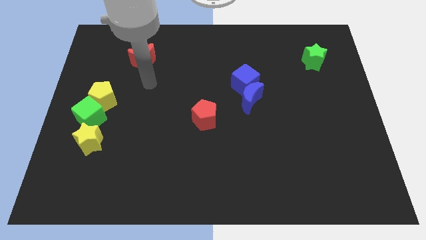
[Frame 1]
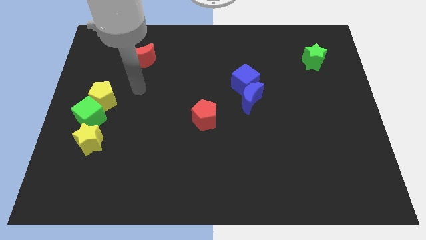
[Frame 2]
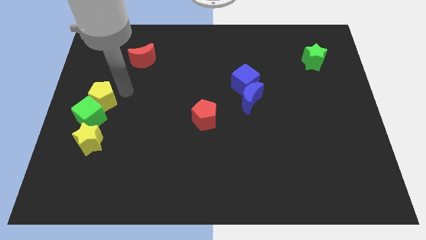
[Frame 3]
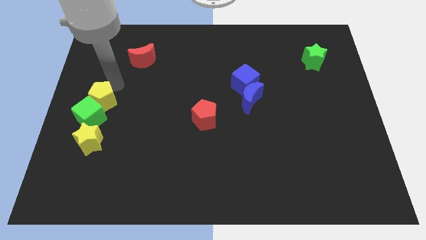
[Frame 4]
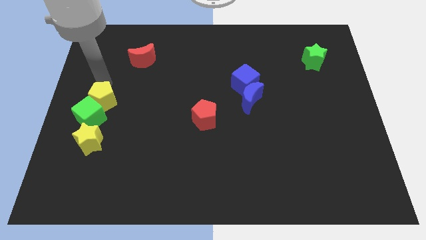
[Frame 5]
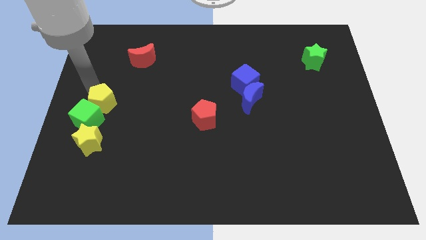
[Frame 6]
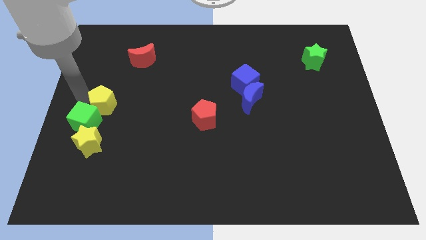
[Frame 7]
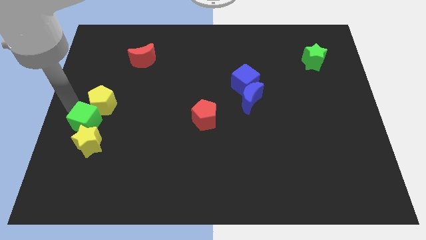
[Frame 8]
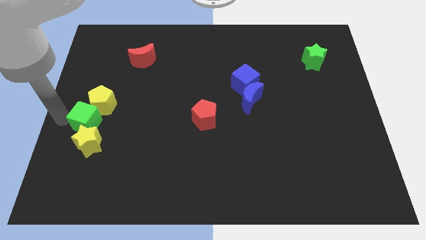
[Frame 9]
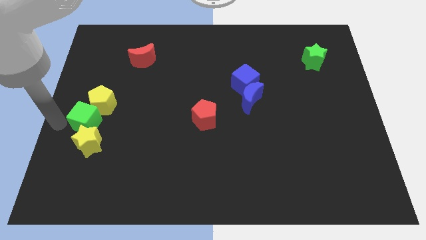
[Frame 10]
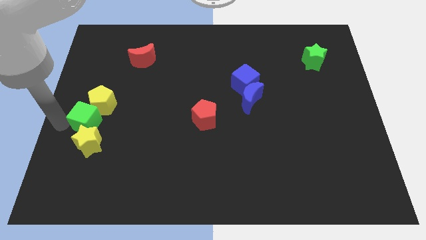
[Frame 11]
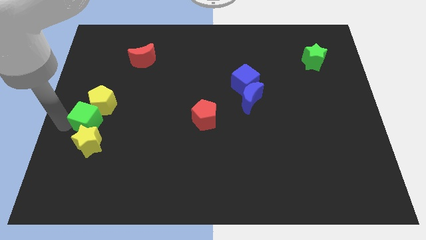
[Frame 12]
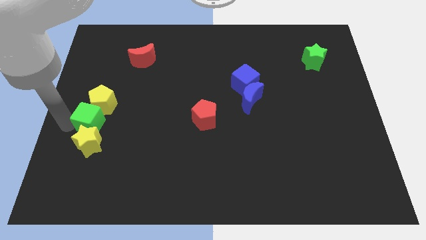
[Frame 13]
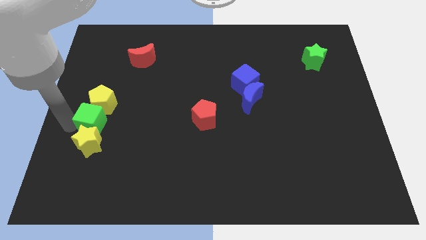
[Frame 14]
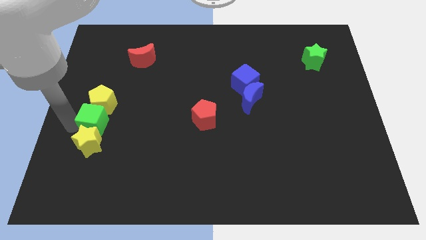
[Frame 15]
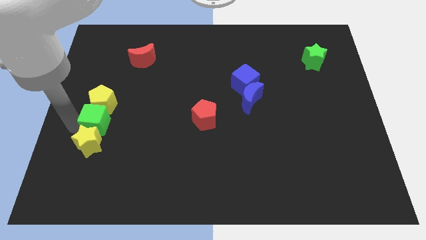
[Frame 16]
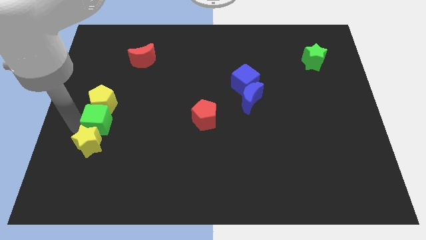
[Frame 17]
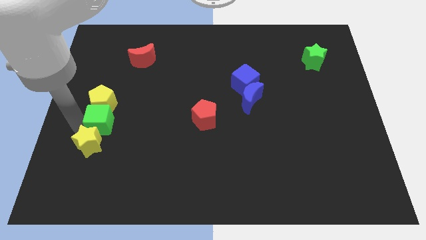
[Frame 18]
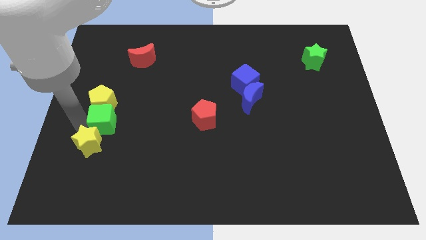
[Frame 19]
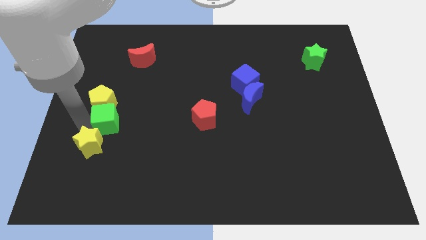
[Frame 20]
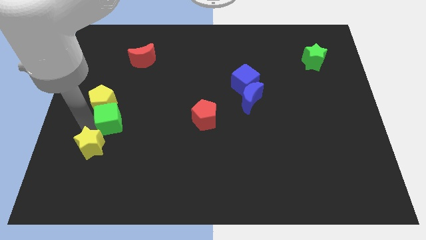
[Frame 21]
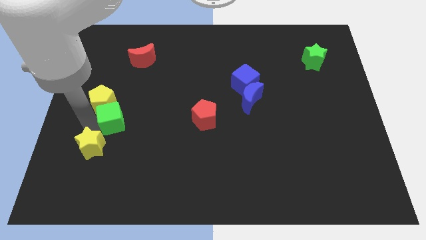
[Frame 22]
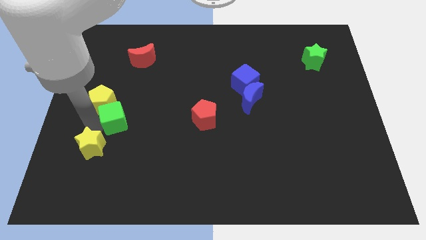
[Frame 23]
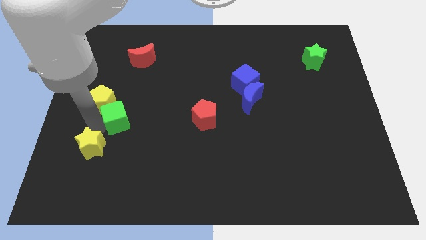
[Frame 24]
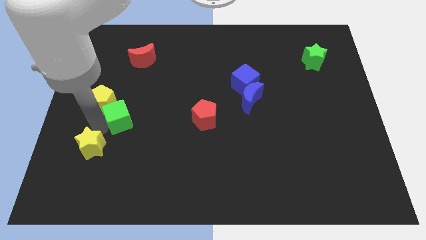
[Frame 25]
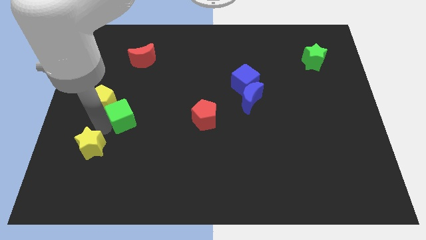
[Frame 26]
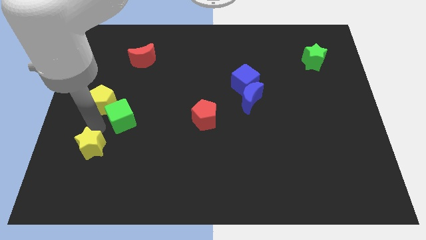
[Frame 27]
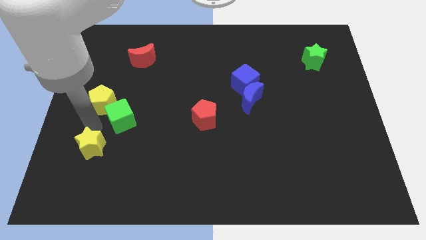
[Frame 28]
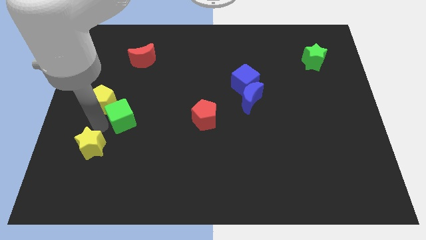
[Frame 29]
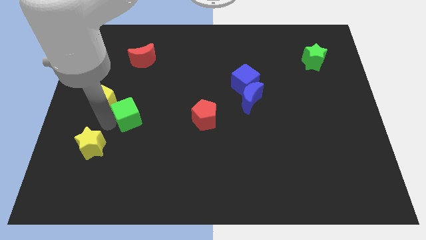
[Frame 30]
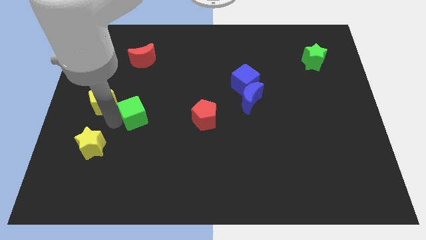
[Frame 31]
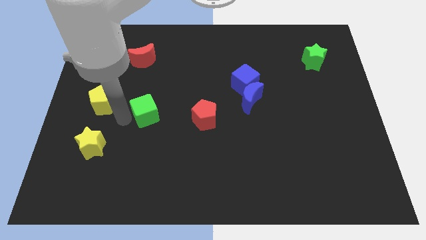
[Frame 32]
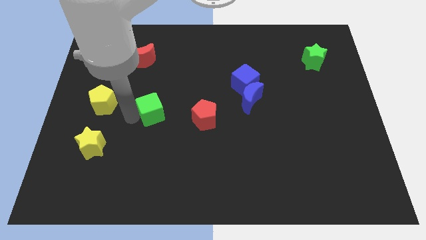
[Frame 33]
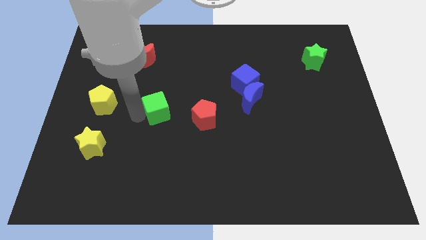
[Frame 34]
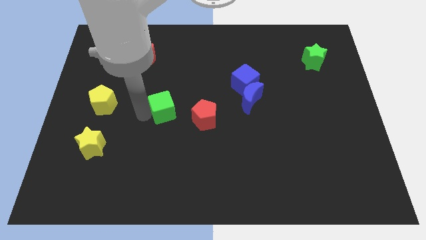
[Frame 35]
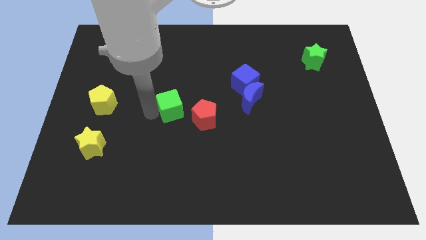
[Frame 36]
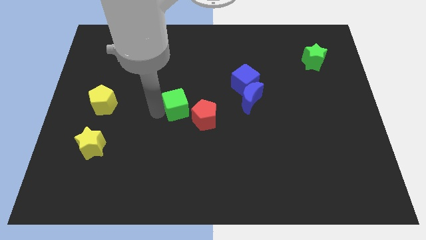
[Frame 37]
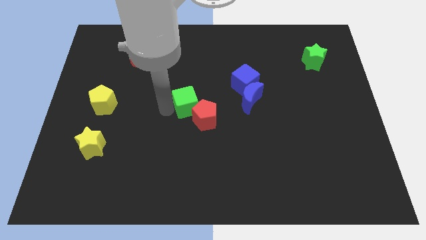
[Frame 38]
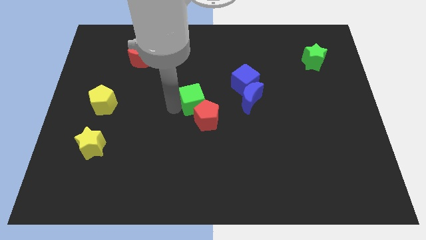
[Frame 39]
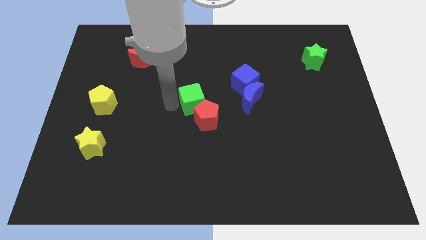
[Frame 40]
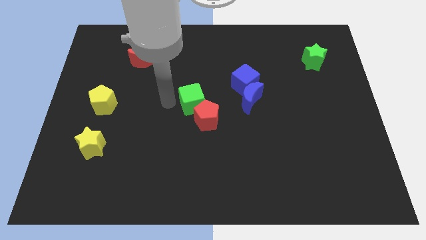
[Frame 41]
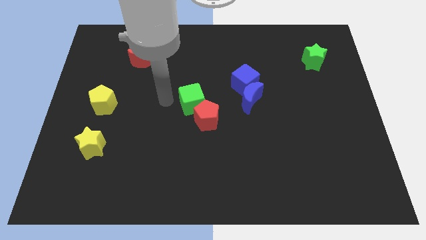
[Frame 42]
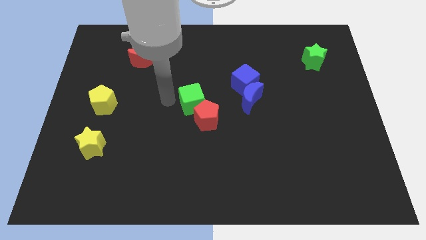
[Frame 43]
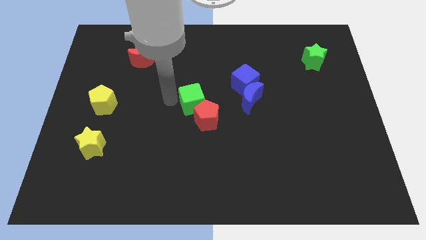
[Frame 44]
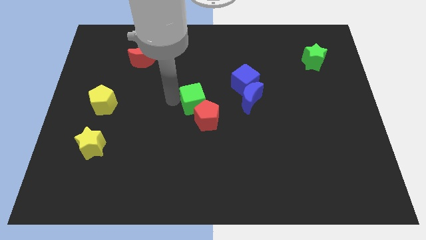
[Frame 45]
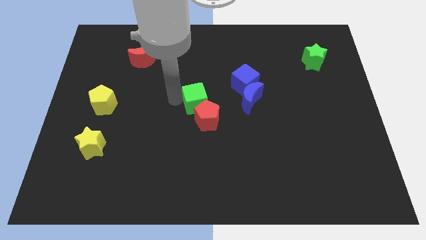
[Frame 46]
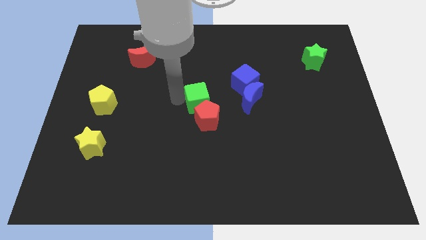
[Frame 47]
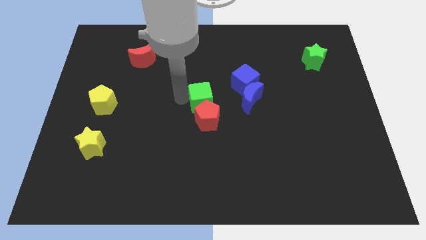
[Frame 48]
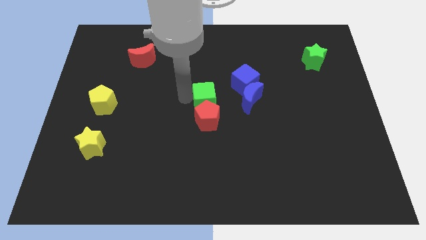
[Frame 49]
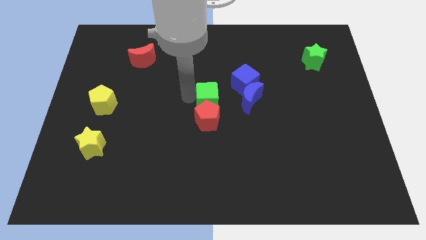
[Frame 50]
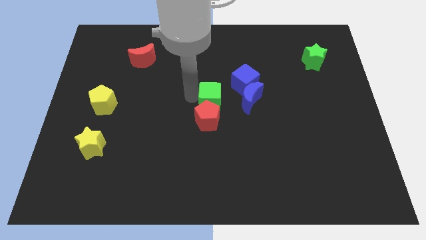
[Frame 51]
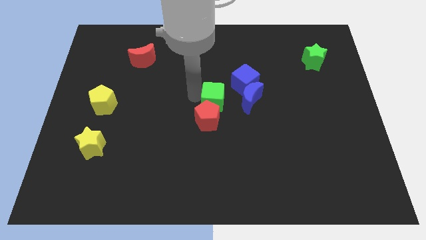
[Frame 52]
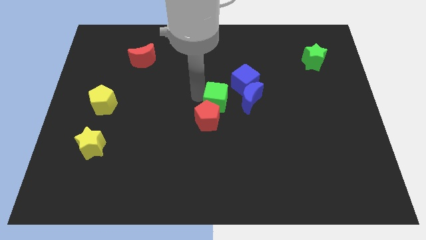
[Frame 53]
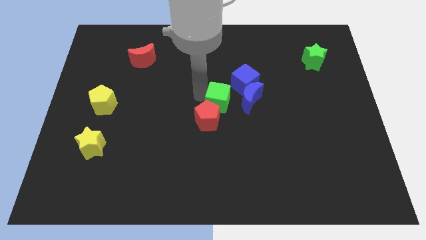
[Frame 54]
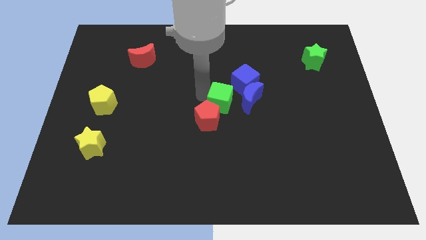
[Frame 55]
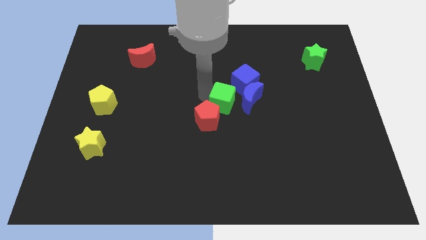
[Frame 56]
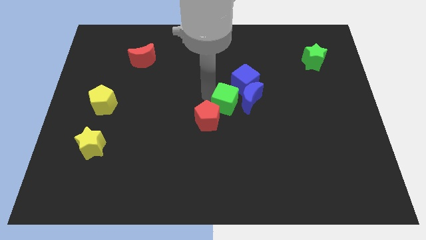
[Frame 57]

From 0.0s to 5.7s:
put the green cube below the blue cube

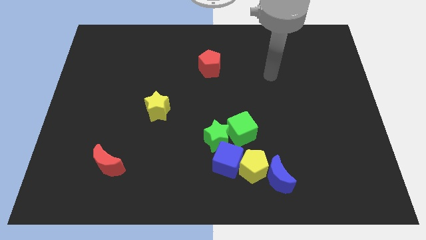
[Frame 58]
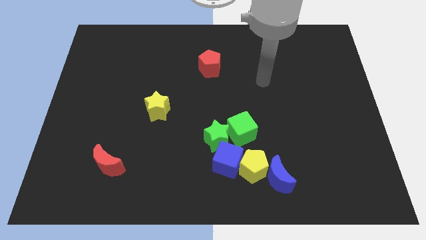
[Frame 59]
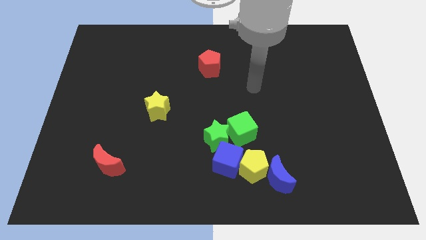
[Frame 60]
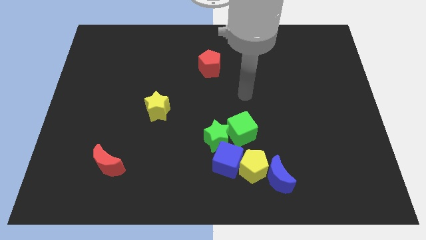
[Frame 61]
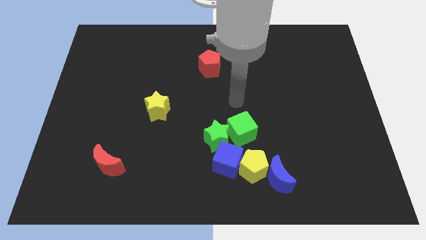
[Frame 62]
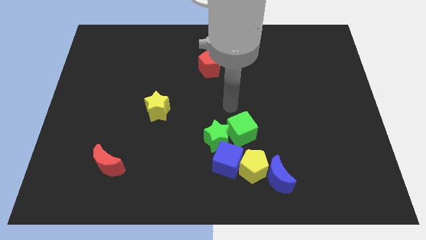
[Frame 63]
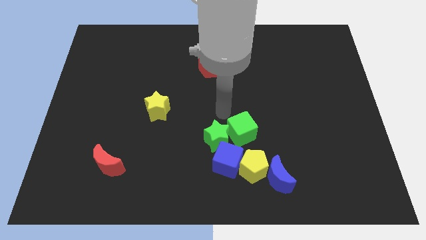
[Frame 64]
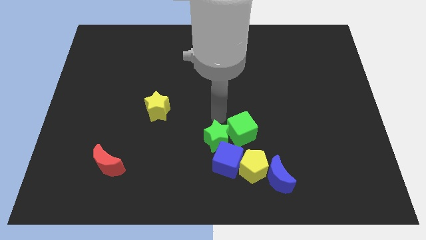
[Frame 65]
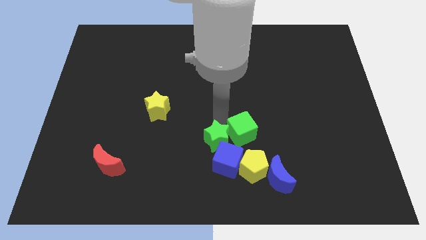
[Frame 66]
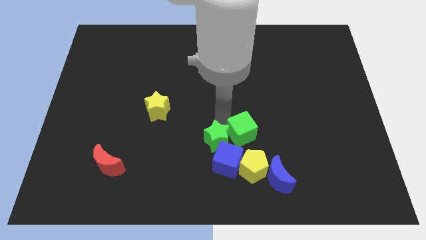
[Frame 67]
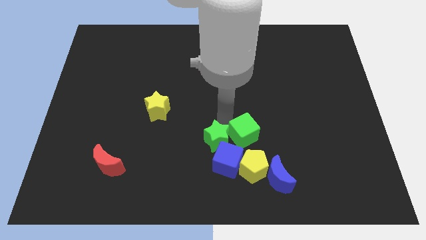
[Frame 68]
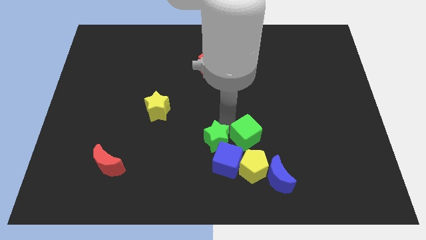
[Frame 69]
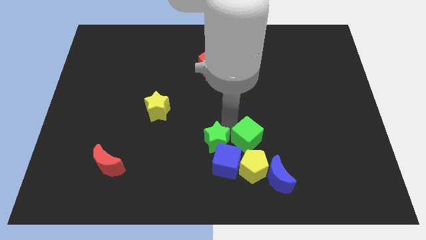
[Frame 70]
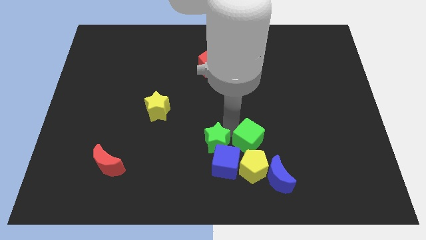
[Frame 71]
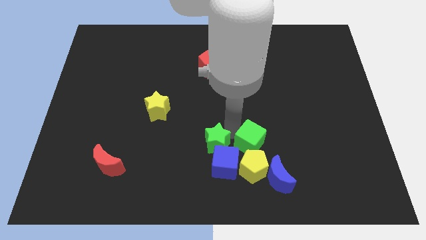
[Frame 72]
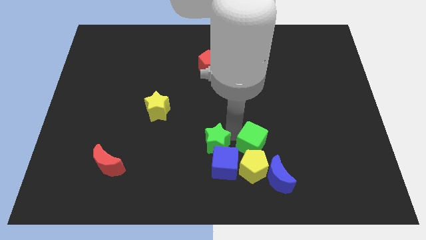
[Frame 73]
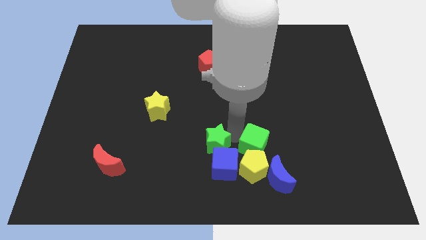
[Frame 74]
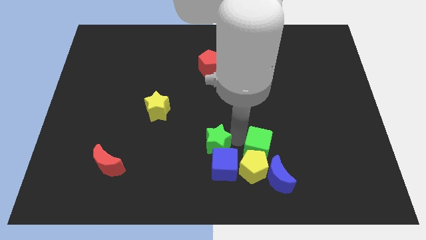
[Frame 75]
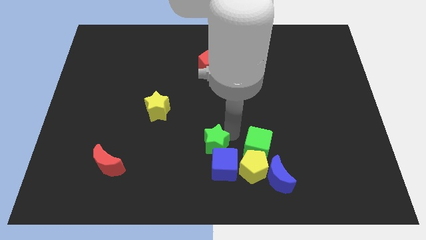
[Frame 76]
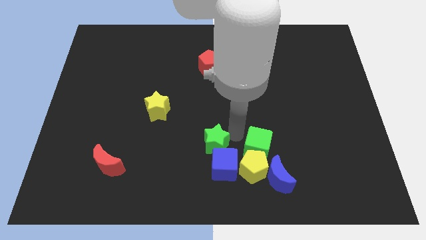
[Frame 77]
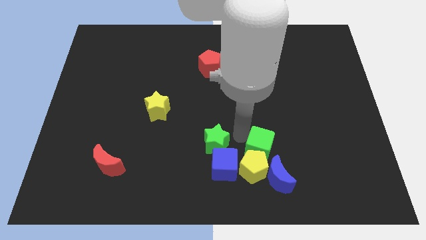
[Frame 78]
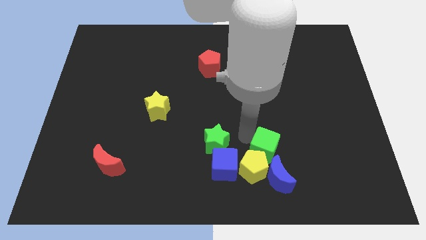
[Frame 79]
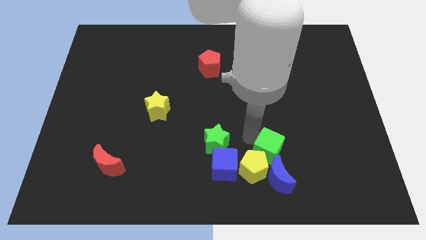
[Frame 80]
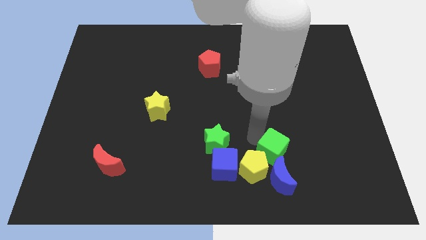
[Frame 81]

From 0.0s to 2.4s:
push the green cube to the right of the yellow pentagon
